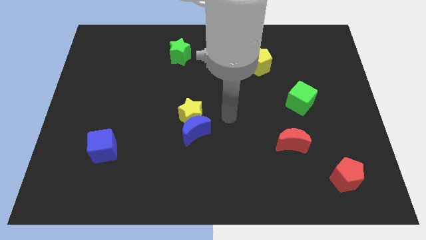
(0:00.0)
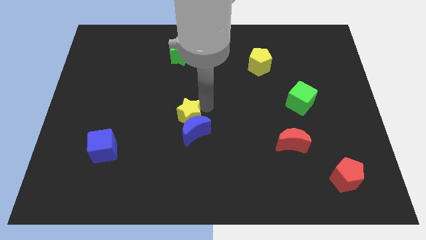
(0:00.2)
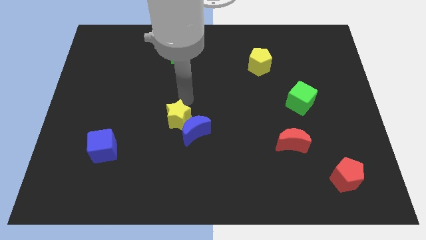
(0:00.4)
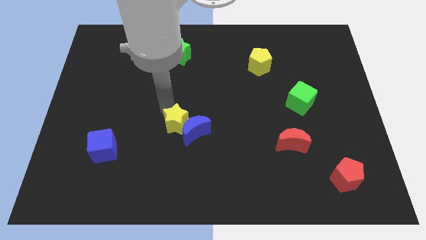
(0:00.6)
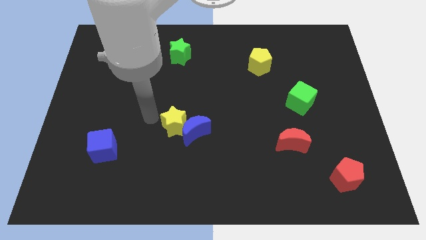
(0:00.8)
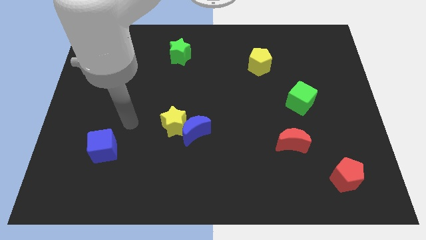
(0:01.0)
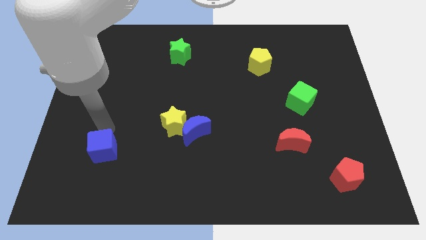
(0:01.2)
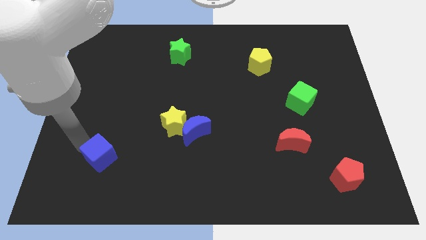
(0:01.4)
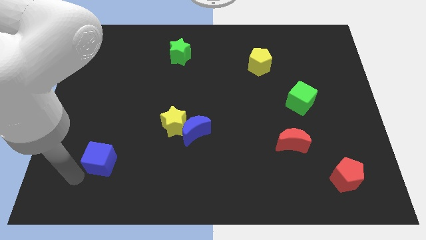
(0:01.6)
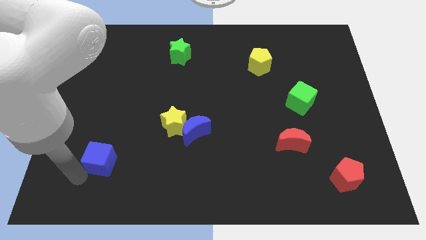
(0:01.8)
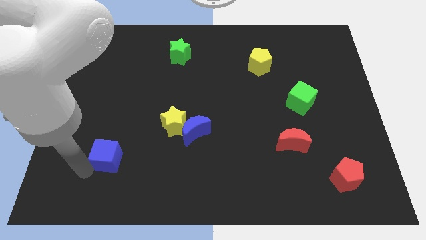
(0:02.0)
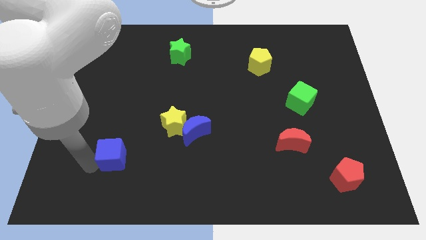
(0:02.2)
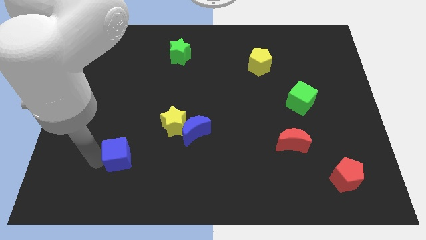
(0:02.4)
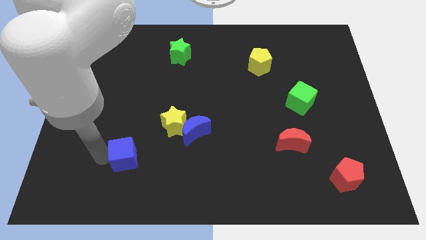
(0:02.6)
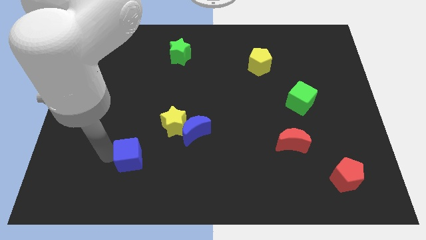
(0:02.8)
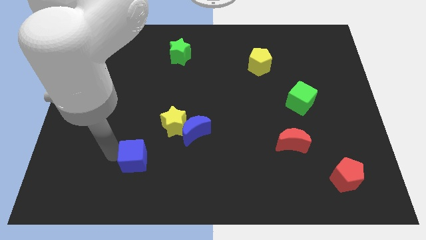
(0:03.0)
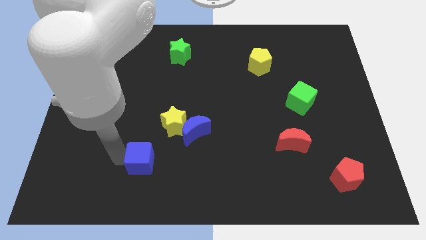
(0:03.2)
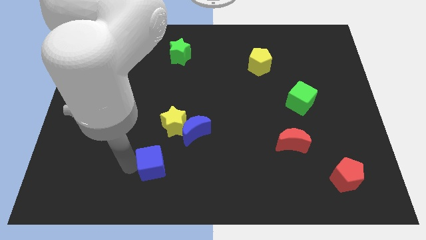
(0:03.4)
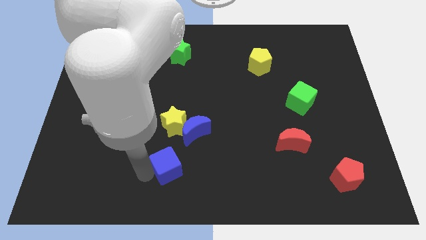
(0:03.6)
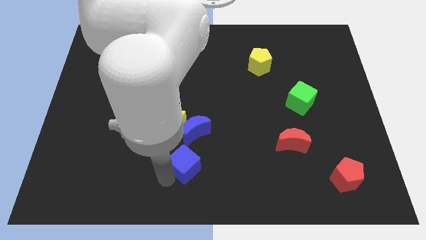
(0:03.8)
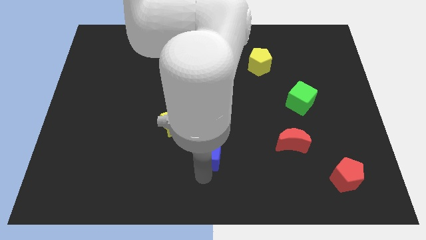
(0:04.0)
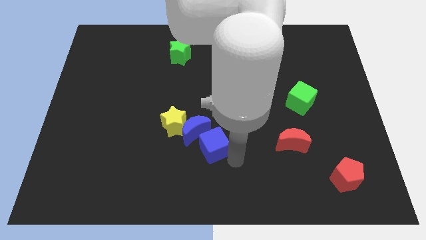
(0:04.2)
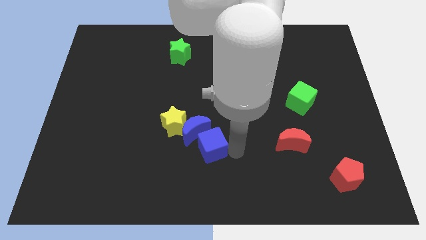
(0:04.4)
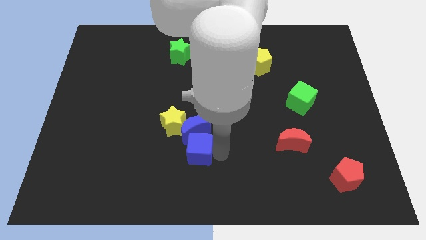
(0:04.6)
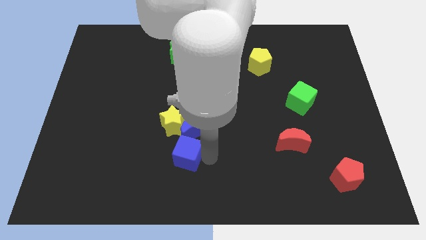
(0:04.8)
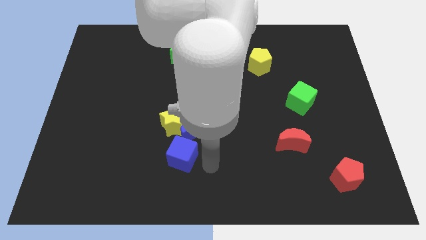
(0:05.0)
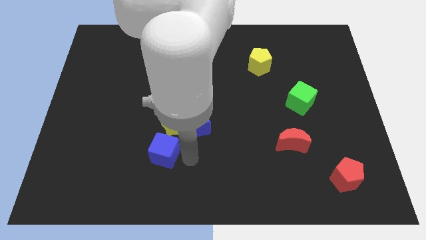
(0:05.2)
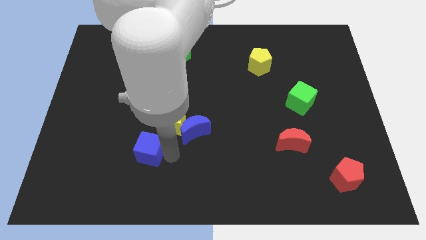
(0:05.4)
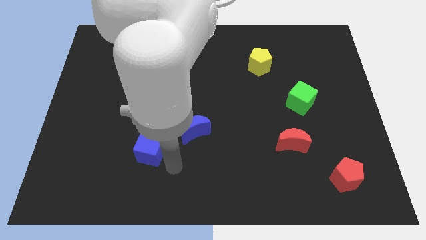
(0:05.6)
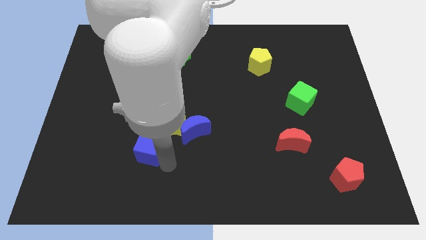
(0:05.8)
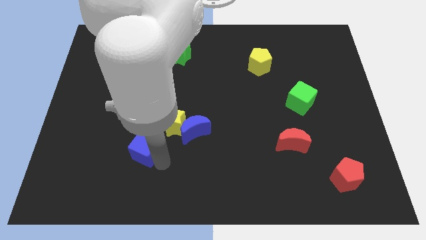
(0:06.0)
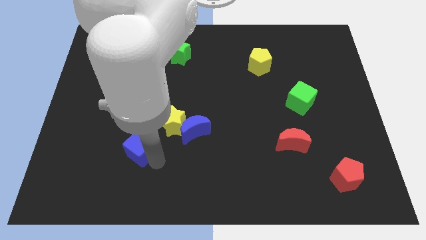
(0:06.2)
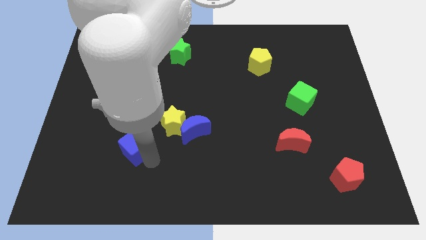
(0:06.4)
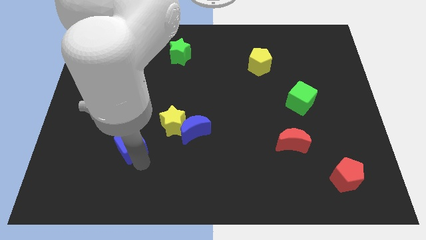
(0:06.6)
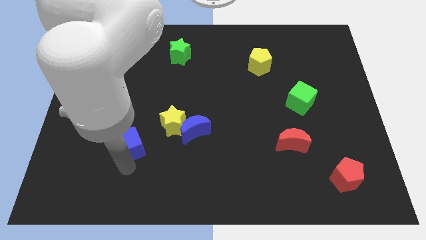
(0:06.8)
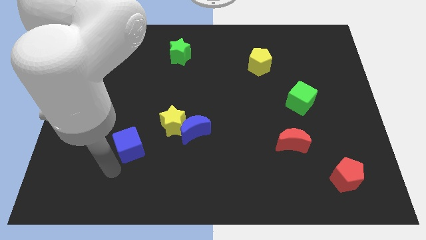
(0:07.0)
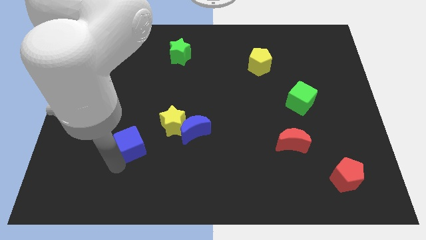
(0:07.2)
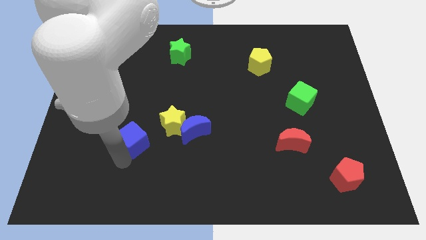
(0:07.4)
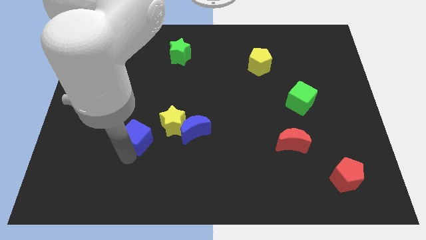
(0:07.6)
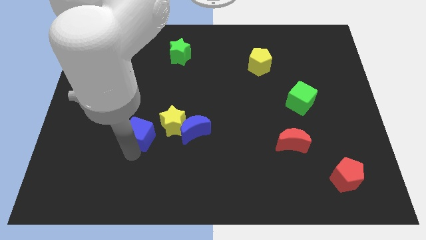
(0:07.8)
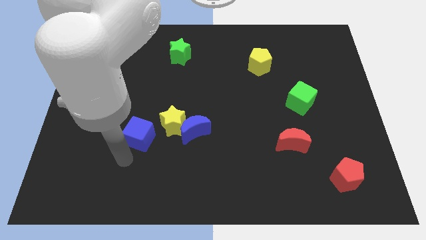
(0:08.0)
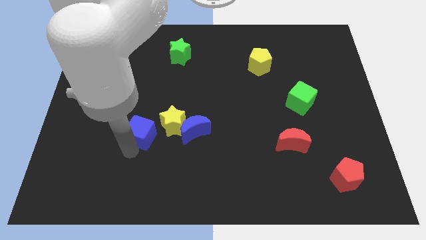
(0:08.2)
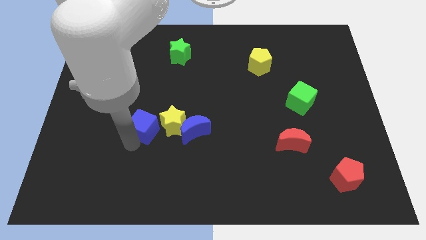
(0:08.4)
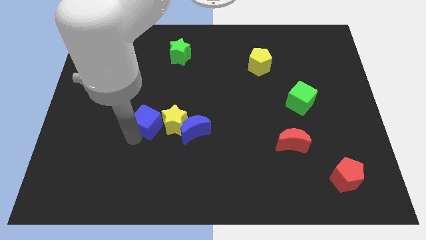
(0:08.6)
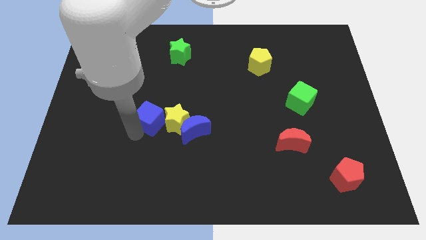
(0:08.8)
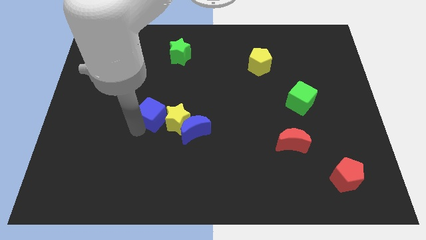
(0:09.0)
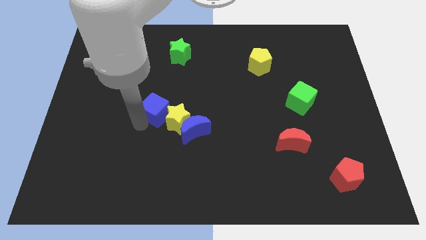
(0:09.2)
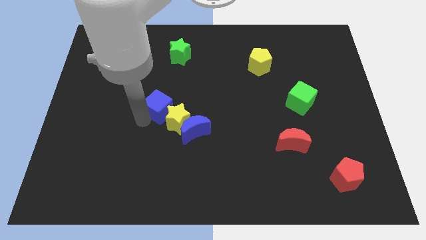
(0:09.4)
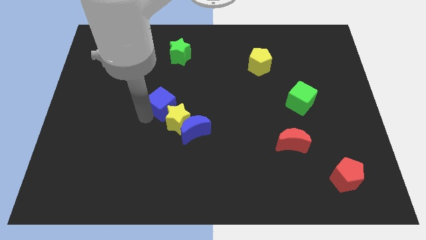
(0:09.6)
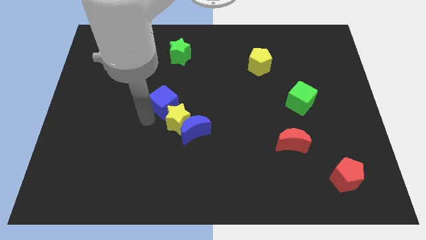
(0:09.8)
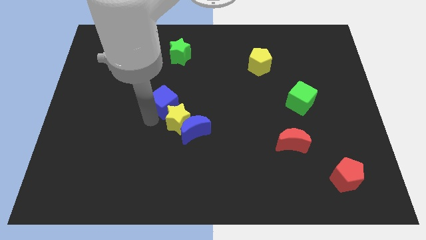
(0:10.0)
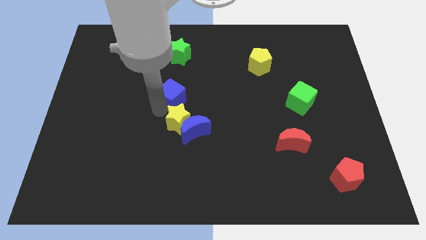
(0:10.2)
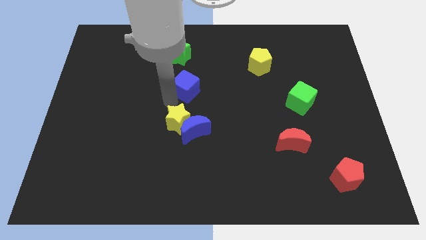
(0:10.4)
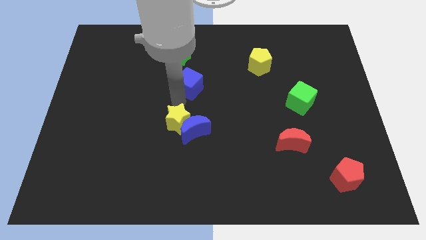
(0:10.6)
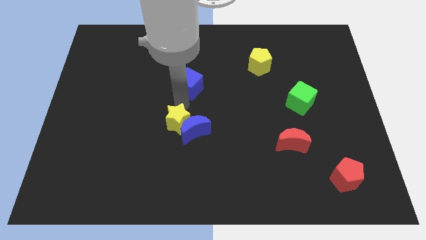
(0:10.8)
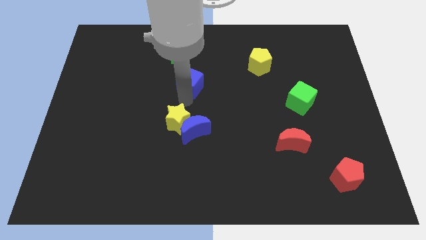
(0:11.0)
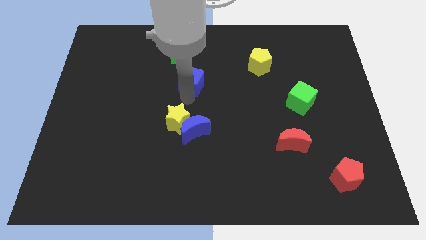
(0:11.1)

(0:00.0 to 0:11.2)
push the blue cube diagonally down and to the right of the green star

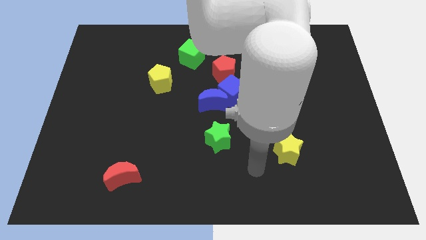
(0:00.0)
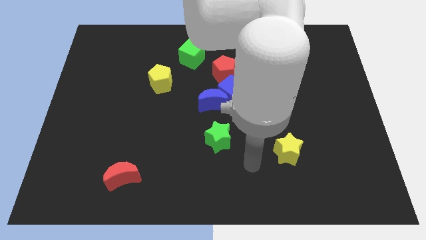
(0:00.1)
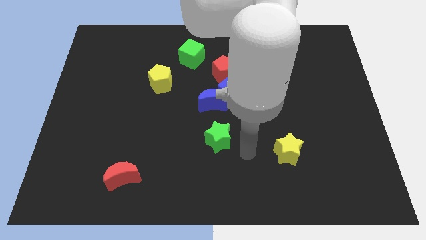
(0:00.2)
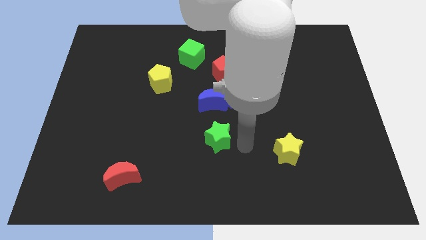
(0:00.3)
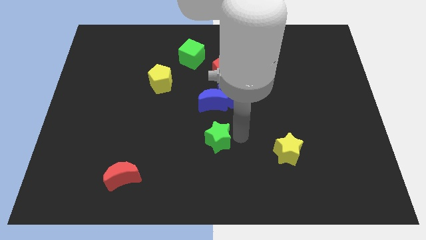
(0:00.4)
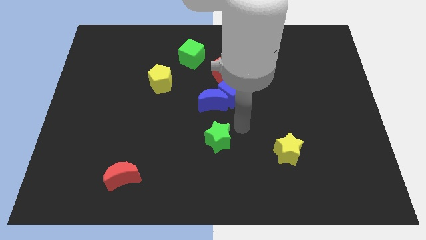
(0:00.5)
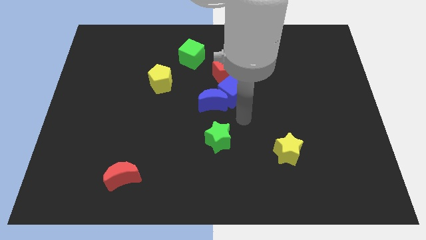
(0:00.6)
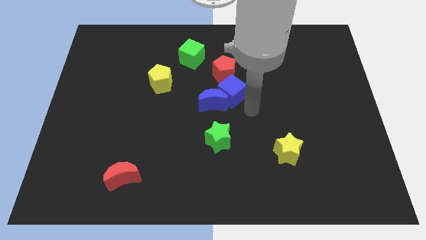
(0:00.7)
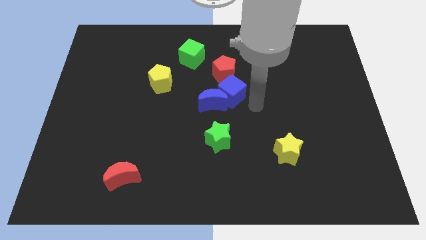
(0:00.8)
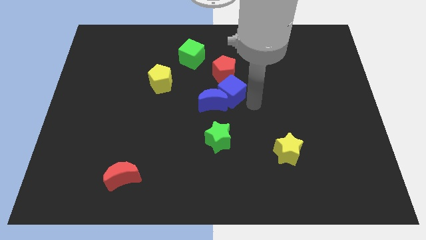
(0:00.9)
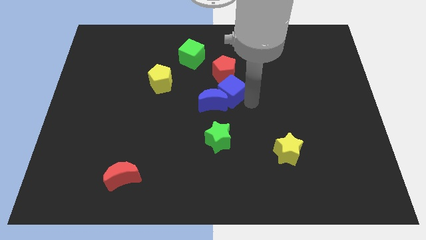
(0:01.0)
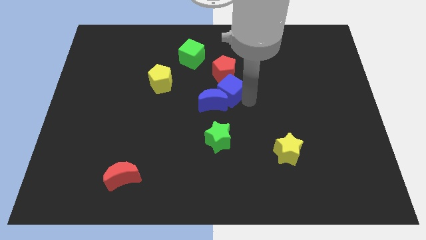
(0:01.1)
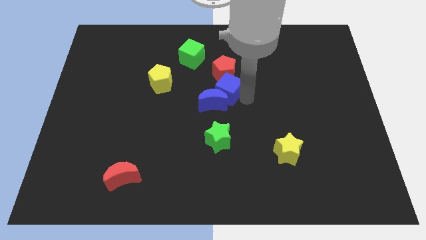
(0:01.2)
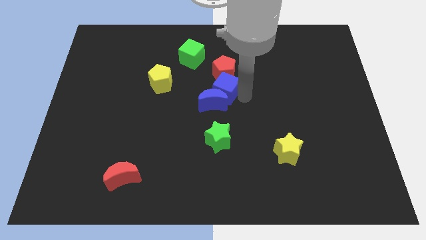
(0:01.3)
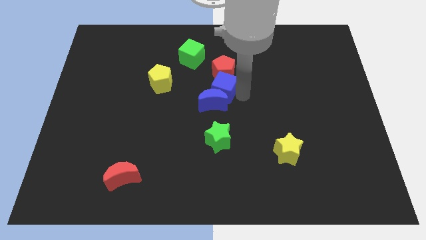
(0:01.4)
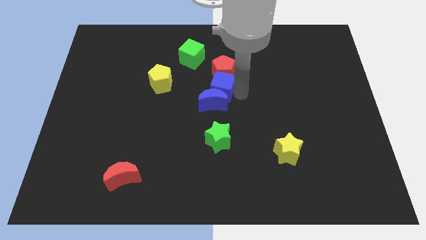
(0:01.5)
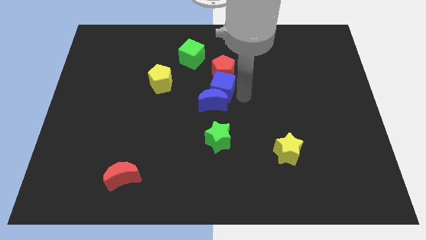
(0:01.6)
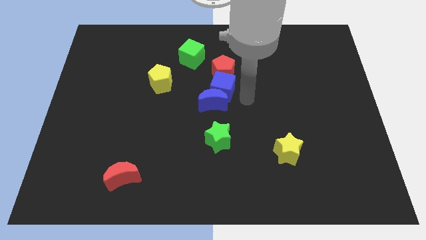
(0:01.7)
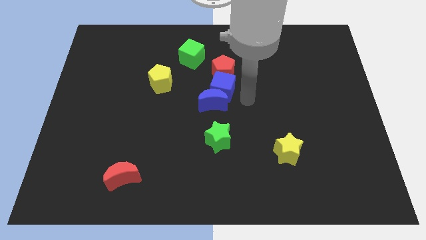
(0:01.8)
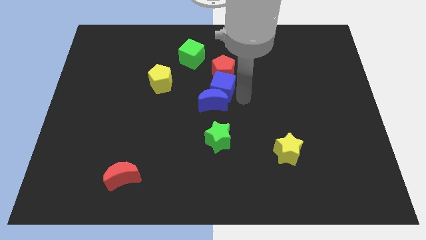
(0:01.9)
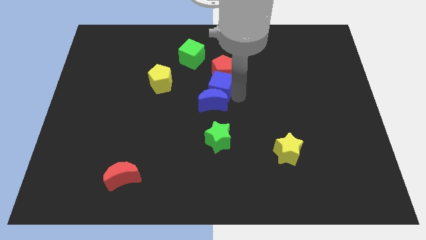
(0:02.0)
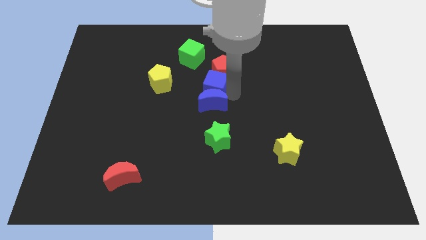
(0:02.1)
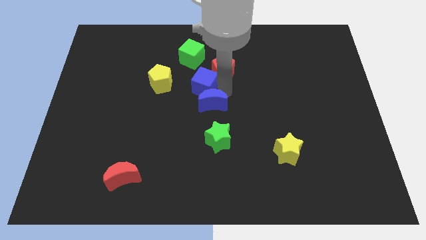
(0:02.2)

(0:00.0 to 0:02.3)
put the blue cube just left of the red pentagon

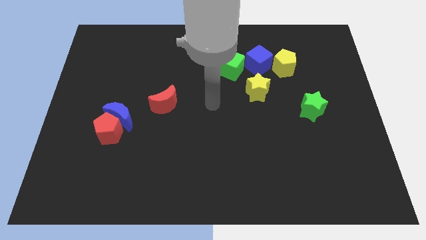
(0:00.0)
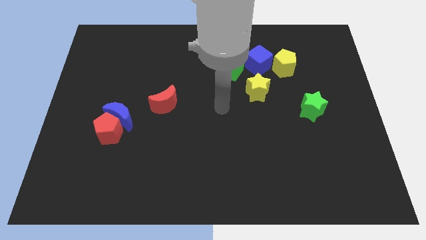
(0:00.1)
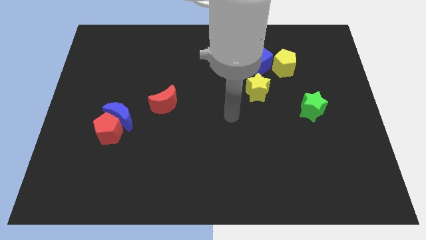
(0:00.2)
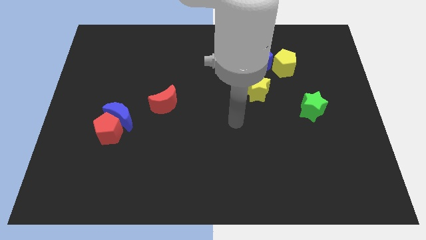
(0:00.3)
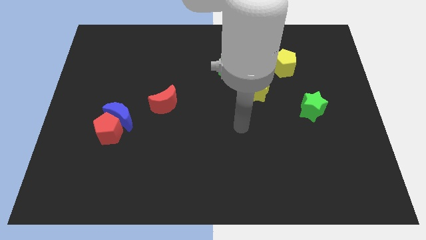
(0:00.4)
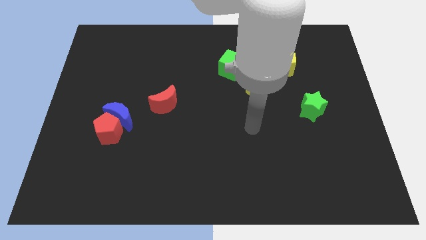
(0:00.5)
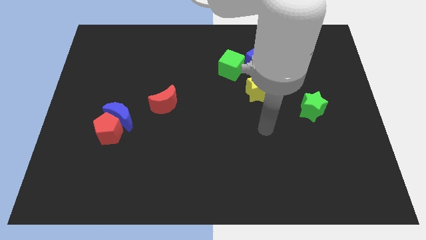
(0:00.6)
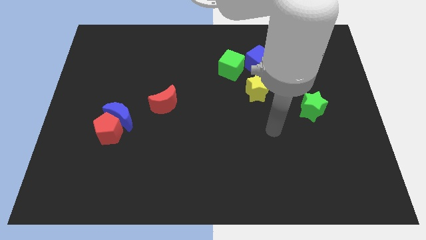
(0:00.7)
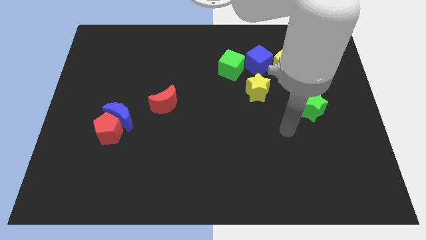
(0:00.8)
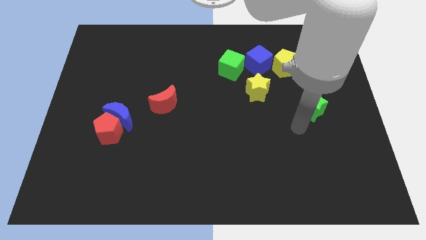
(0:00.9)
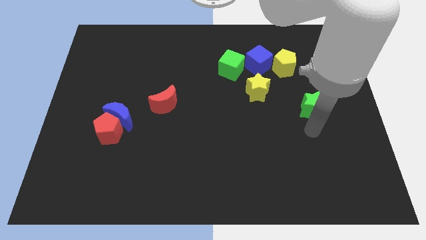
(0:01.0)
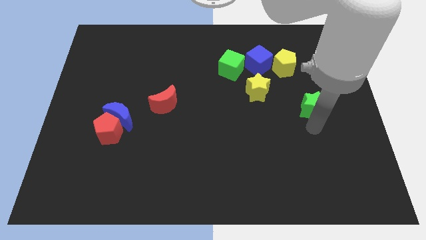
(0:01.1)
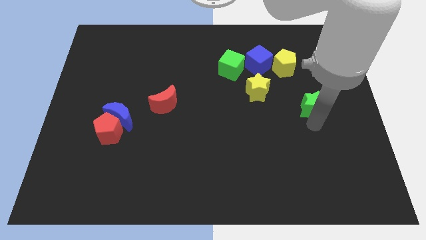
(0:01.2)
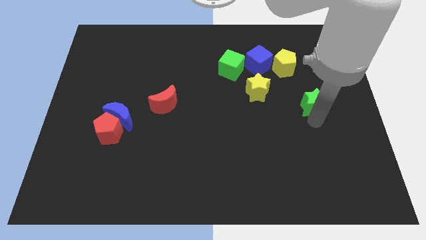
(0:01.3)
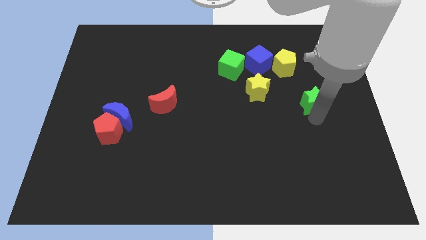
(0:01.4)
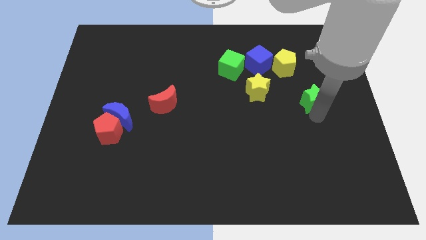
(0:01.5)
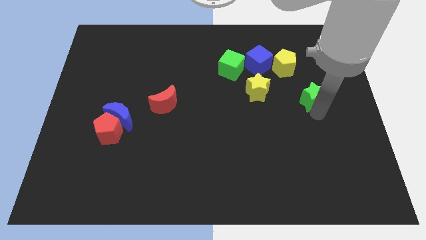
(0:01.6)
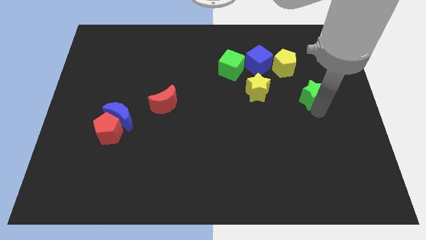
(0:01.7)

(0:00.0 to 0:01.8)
move the green star diagonally down and to the right of the yellow pentagon
